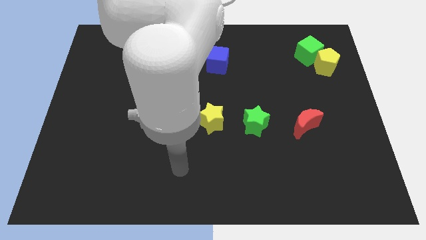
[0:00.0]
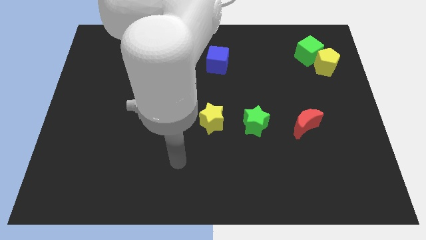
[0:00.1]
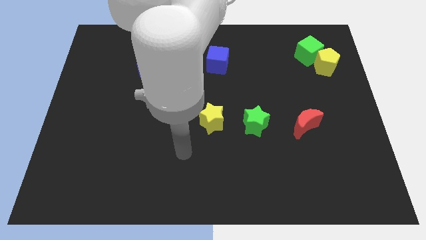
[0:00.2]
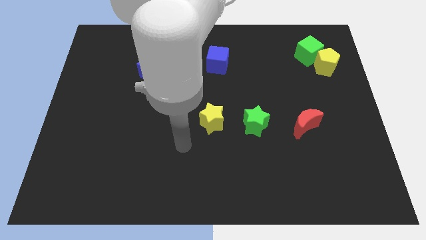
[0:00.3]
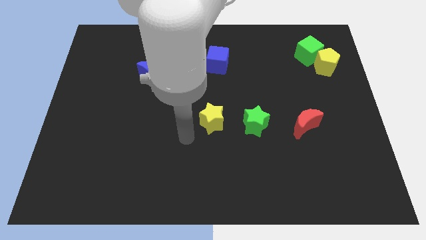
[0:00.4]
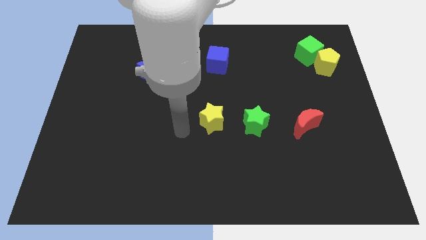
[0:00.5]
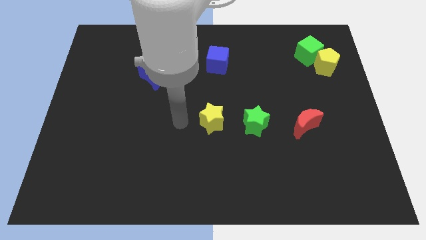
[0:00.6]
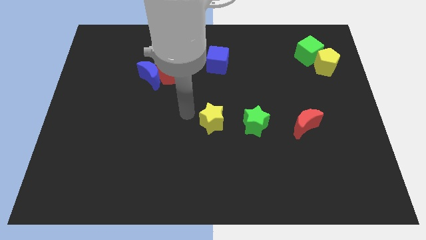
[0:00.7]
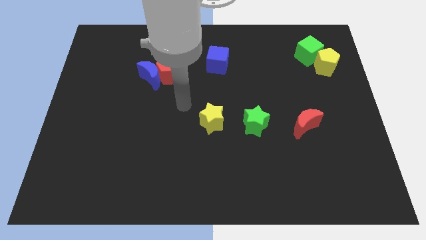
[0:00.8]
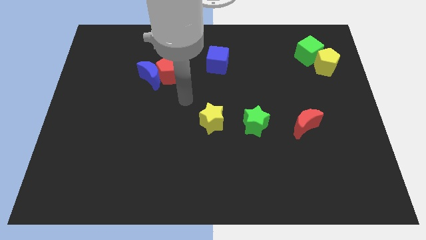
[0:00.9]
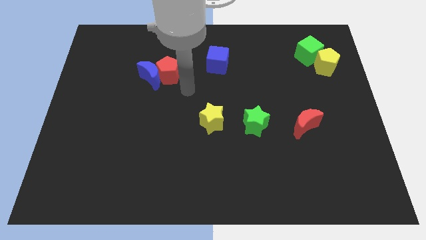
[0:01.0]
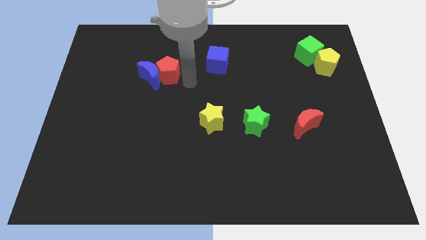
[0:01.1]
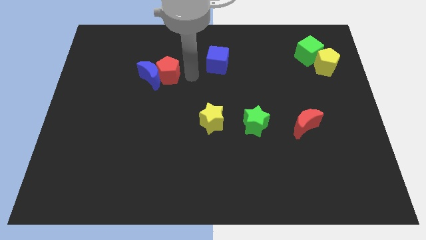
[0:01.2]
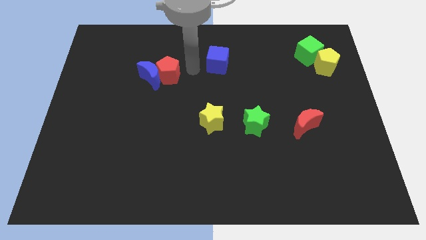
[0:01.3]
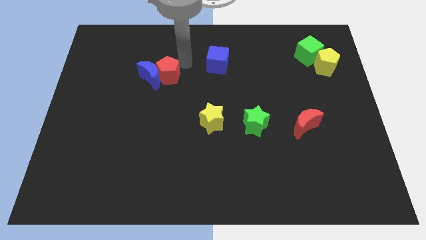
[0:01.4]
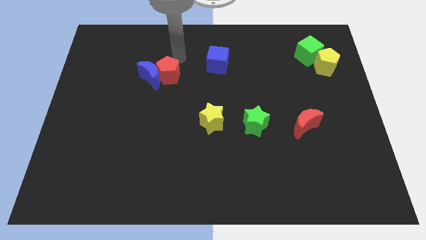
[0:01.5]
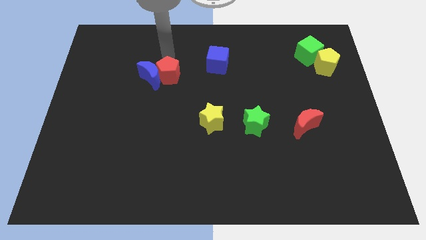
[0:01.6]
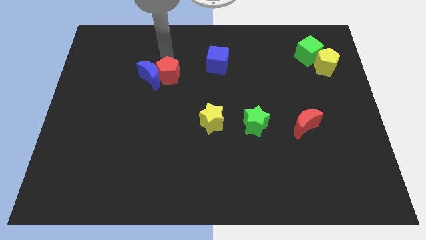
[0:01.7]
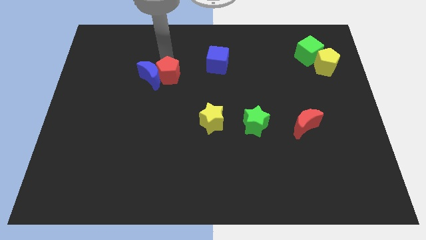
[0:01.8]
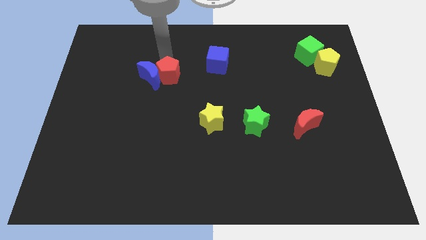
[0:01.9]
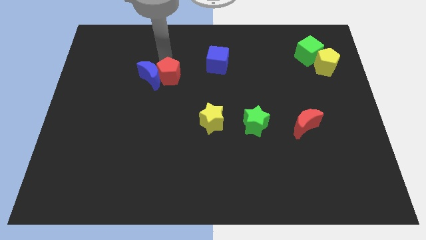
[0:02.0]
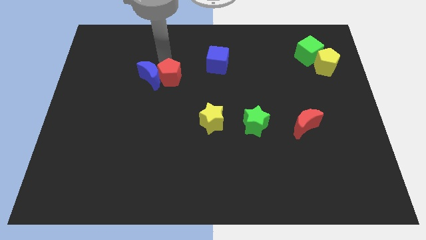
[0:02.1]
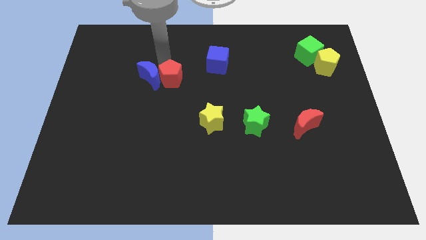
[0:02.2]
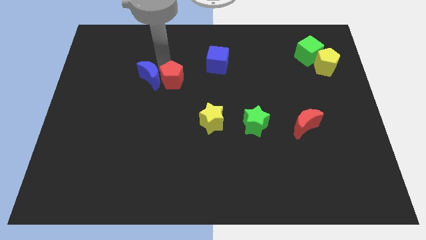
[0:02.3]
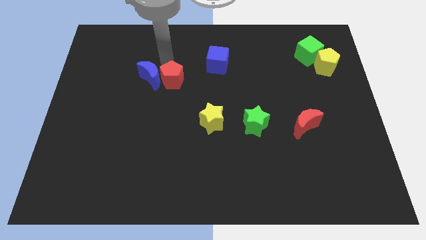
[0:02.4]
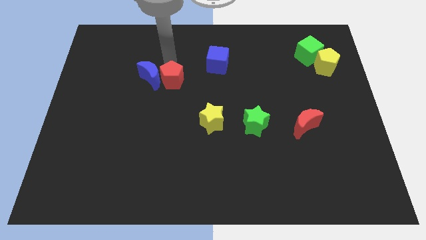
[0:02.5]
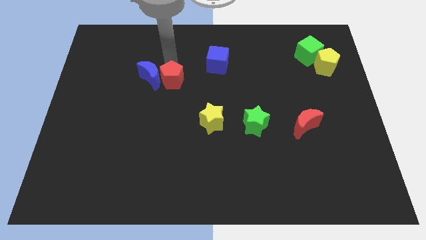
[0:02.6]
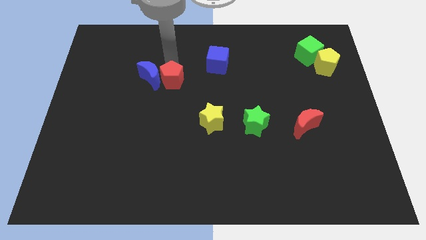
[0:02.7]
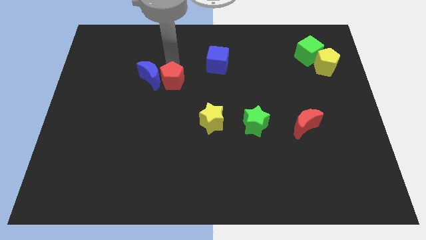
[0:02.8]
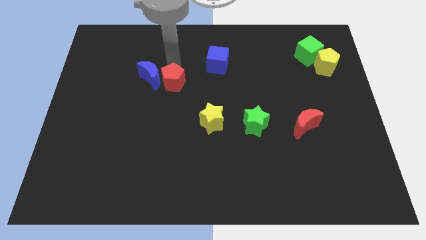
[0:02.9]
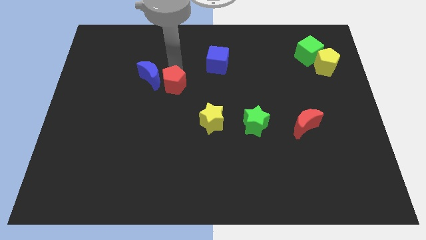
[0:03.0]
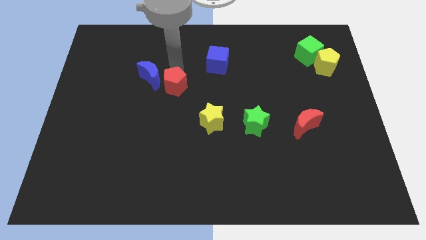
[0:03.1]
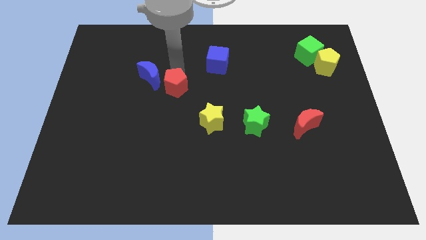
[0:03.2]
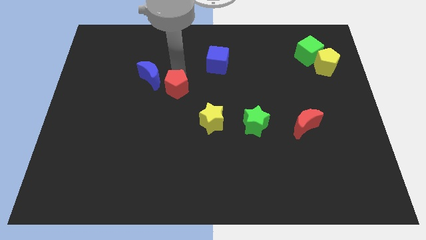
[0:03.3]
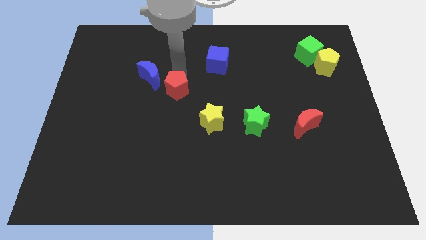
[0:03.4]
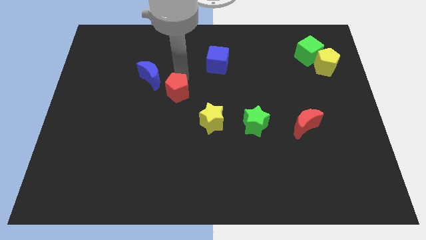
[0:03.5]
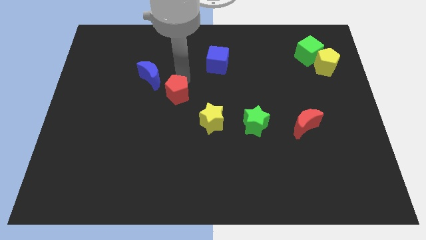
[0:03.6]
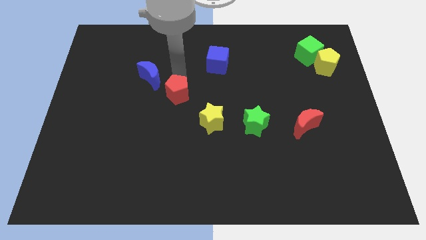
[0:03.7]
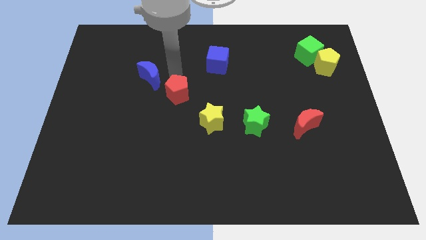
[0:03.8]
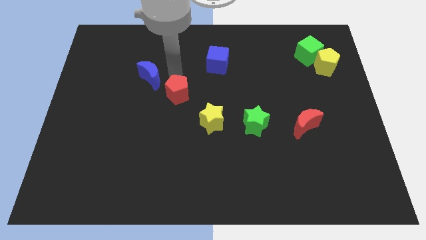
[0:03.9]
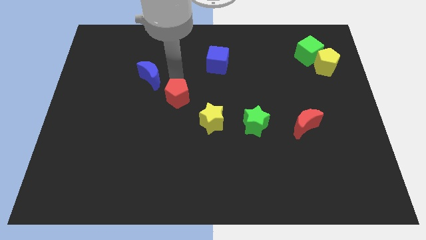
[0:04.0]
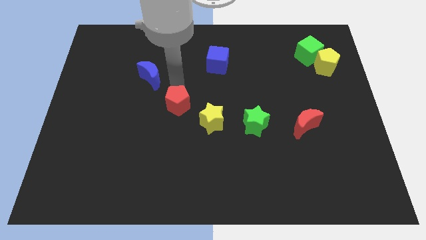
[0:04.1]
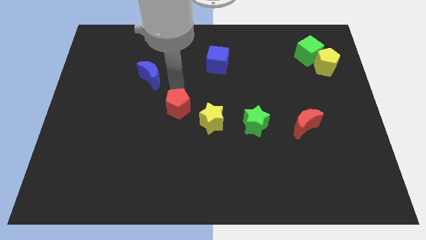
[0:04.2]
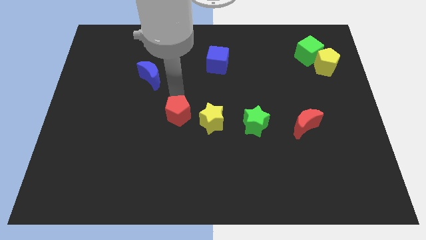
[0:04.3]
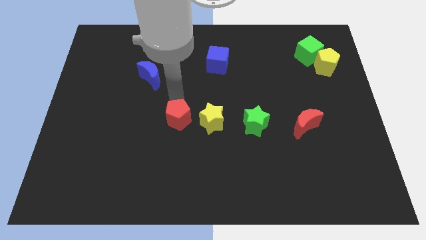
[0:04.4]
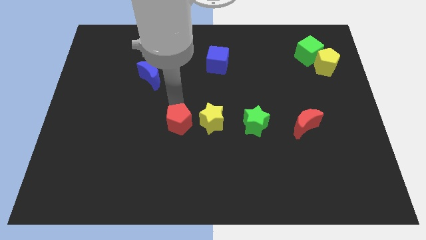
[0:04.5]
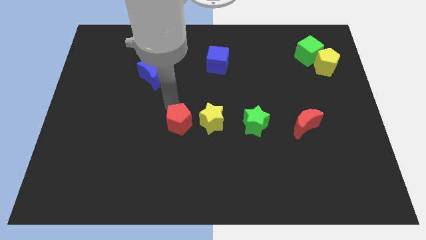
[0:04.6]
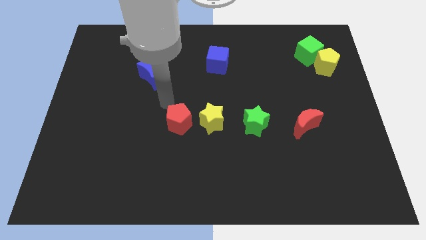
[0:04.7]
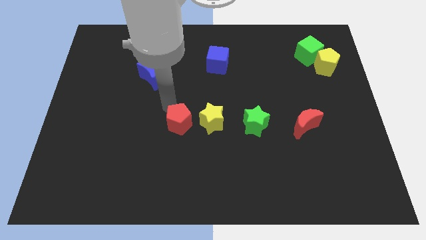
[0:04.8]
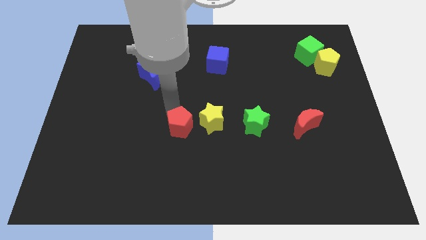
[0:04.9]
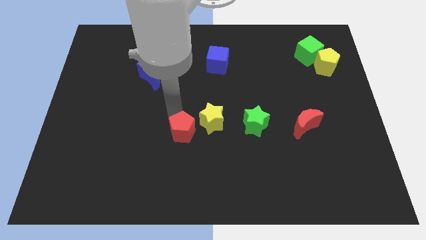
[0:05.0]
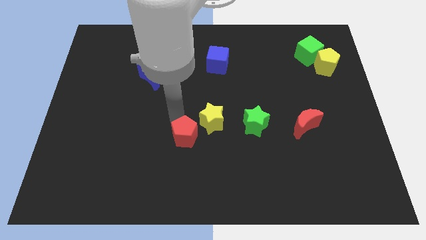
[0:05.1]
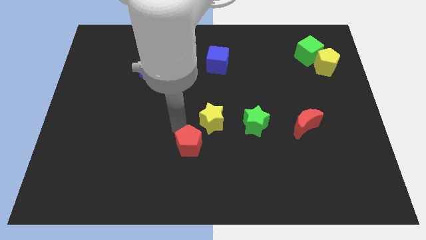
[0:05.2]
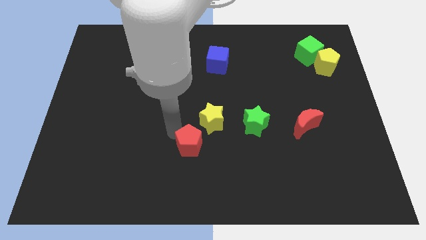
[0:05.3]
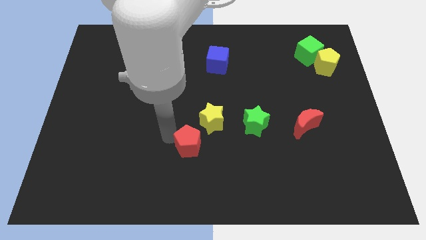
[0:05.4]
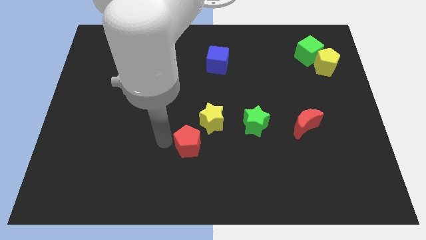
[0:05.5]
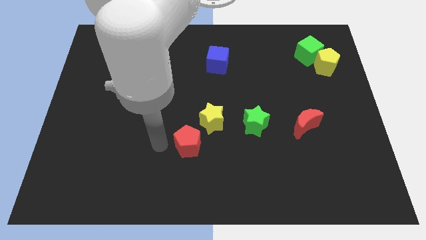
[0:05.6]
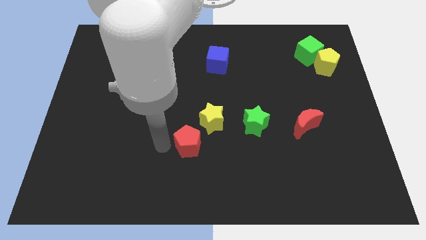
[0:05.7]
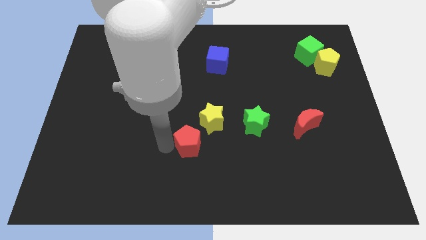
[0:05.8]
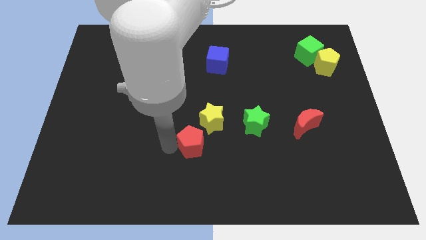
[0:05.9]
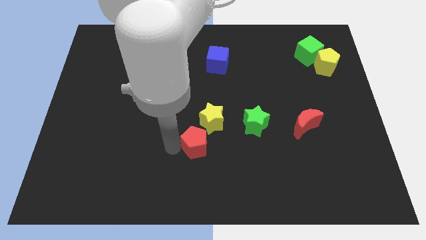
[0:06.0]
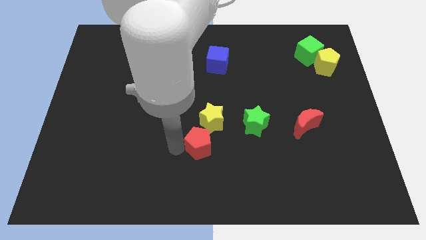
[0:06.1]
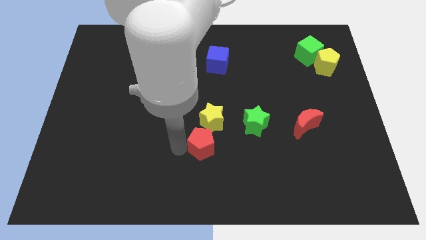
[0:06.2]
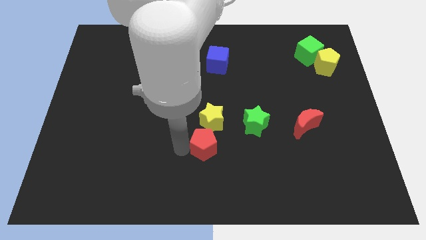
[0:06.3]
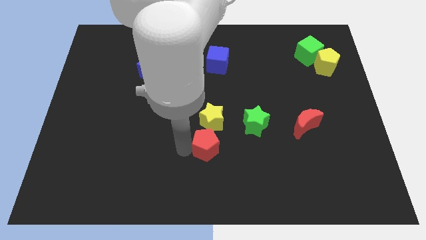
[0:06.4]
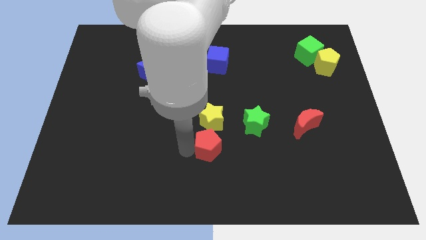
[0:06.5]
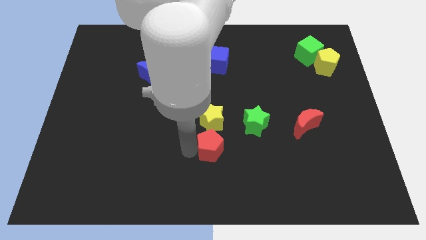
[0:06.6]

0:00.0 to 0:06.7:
move the red pentagon down and then right

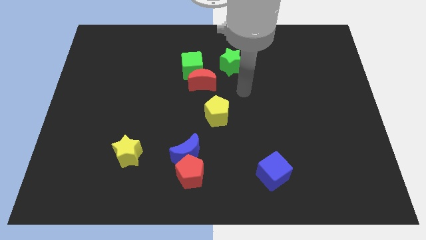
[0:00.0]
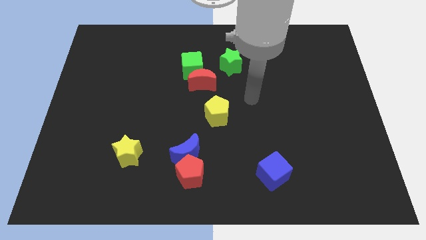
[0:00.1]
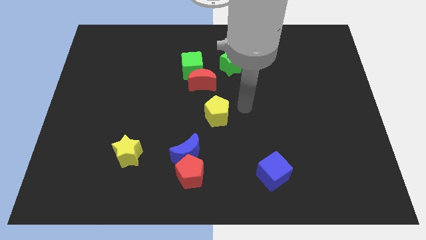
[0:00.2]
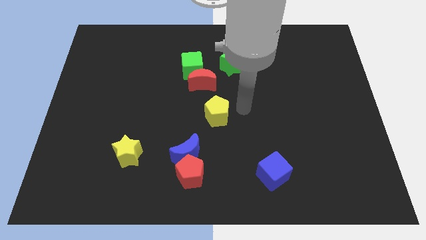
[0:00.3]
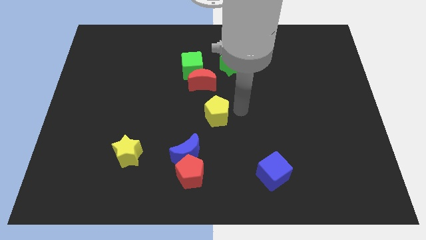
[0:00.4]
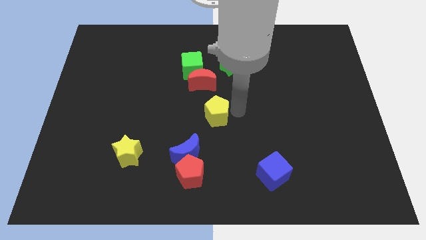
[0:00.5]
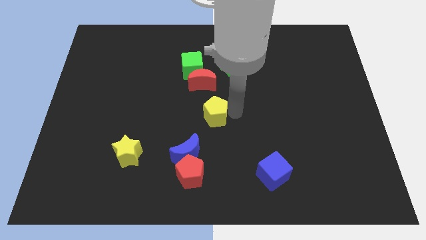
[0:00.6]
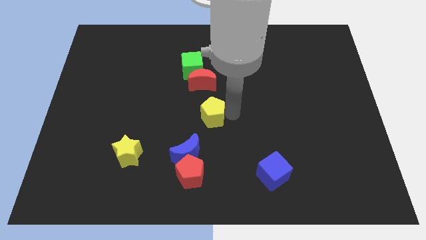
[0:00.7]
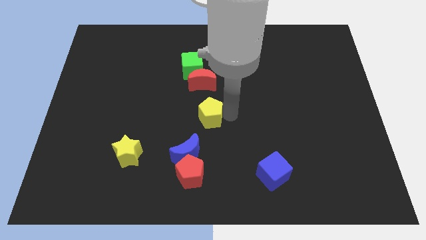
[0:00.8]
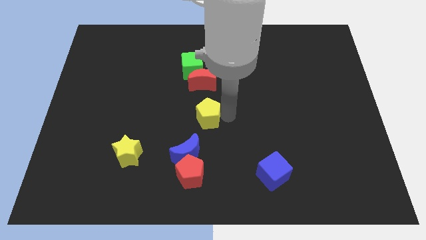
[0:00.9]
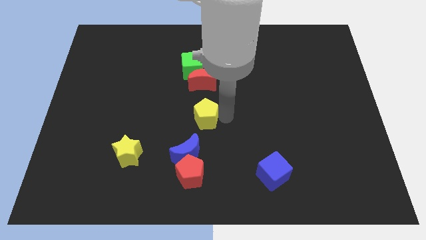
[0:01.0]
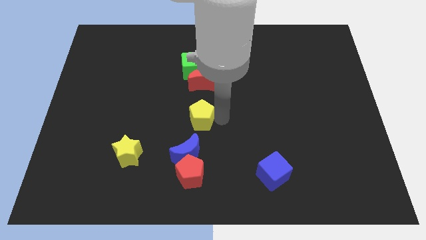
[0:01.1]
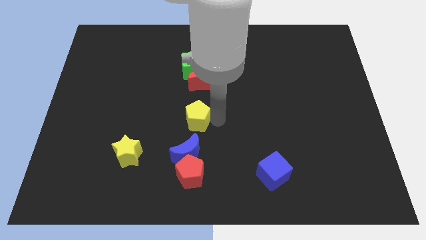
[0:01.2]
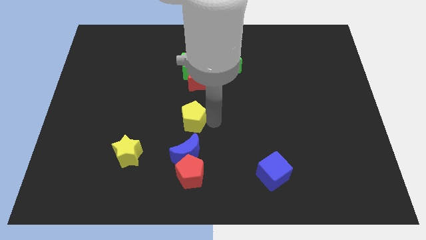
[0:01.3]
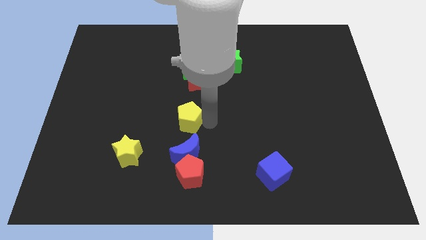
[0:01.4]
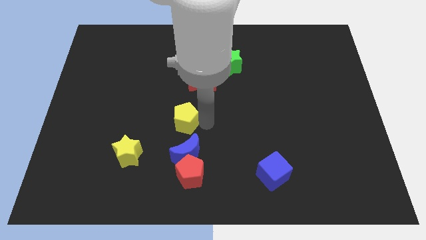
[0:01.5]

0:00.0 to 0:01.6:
push the yellow pentagon to the left a little
